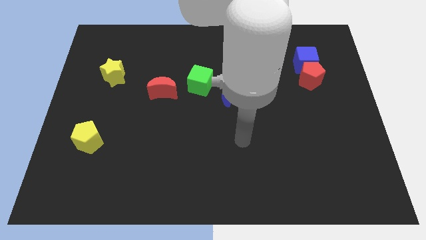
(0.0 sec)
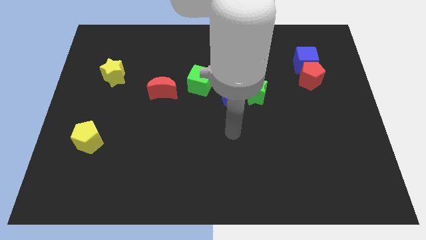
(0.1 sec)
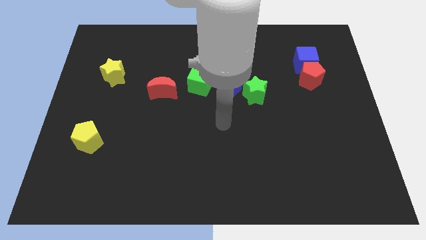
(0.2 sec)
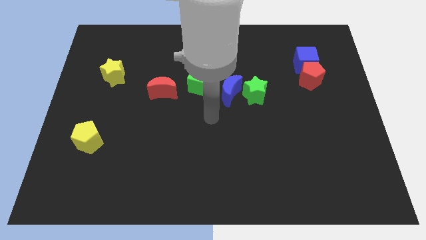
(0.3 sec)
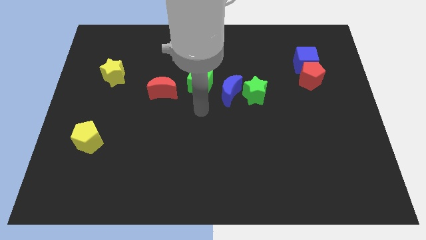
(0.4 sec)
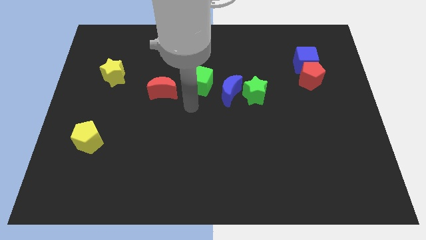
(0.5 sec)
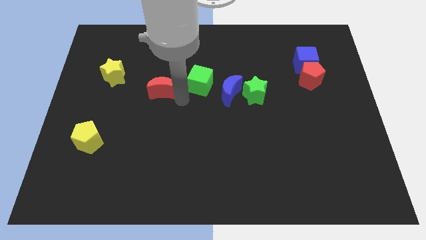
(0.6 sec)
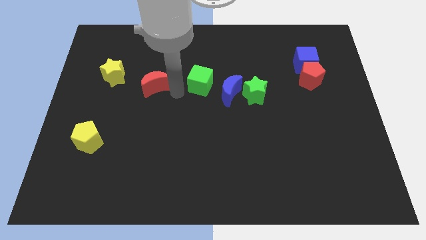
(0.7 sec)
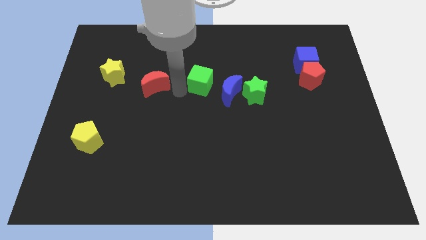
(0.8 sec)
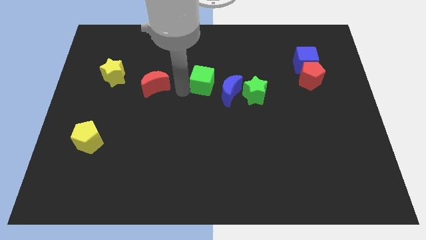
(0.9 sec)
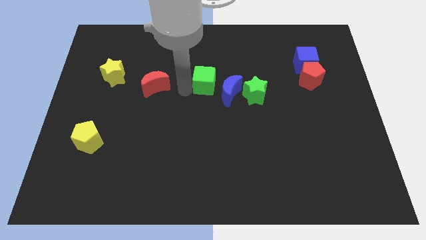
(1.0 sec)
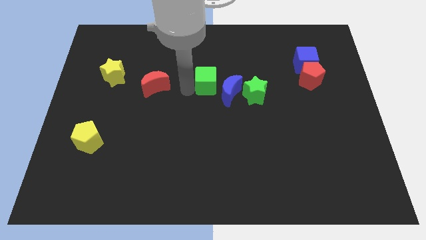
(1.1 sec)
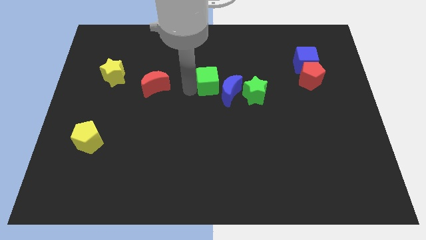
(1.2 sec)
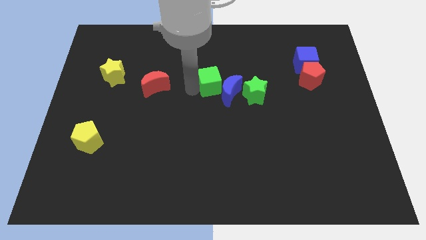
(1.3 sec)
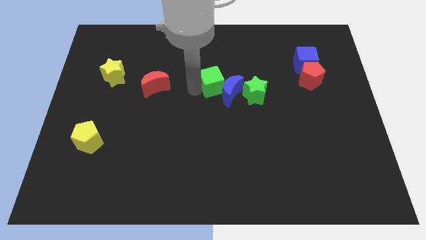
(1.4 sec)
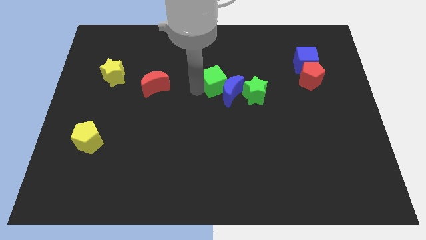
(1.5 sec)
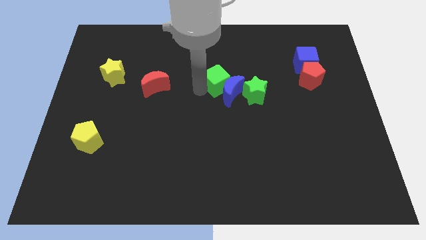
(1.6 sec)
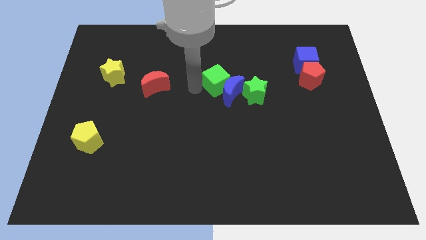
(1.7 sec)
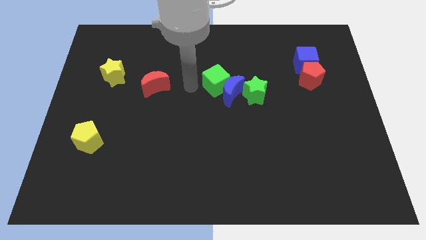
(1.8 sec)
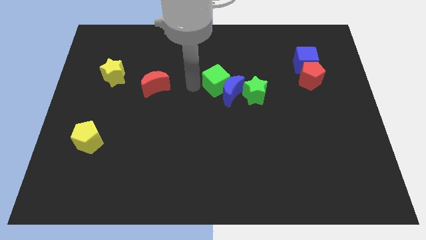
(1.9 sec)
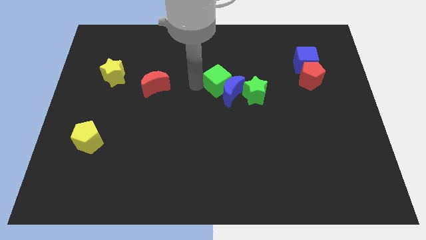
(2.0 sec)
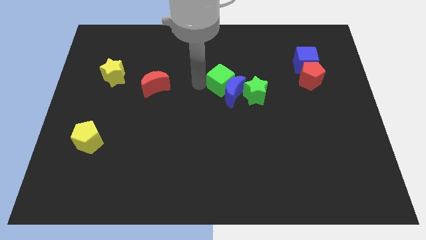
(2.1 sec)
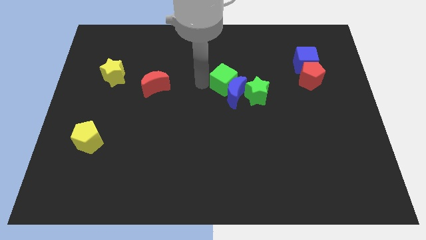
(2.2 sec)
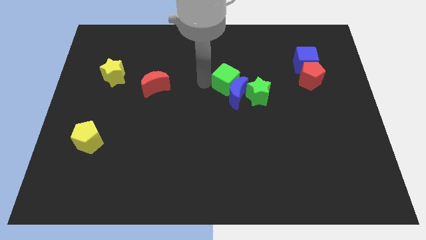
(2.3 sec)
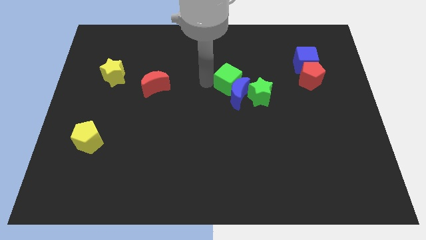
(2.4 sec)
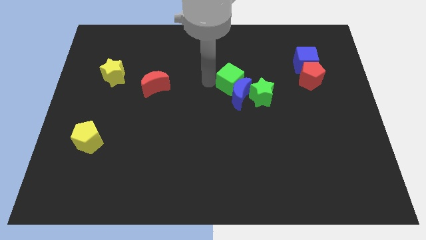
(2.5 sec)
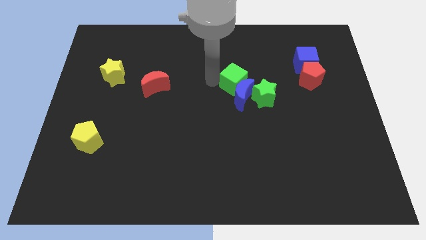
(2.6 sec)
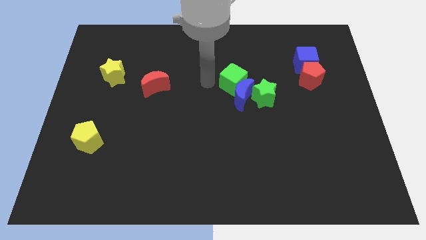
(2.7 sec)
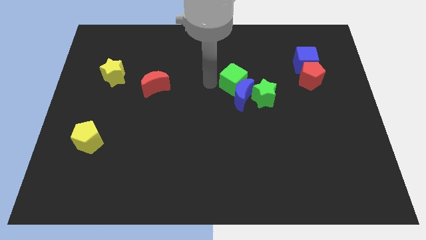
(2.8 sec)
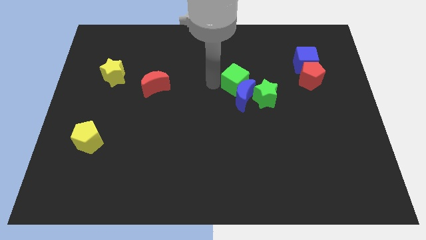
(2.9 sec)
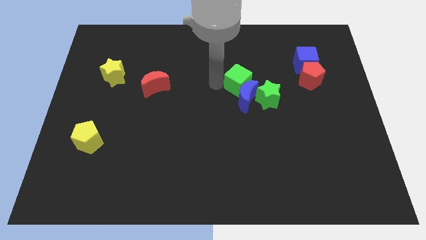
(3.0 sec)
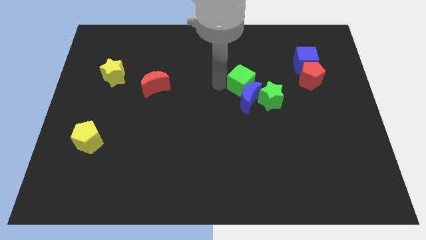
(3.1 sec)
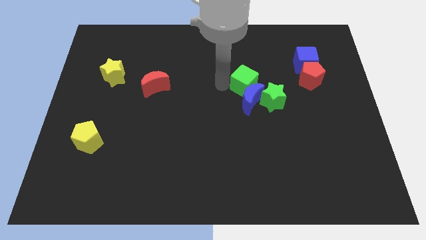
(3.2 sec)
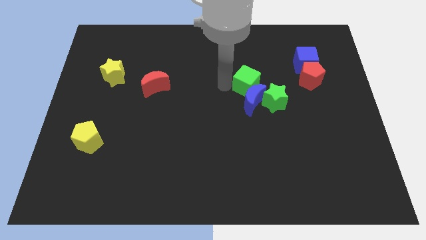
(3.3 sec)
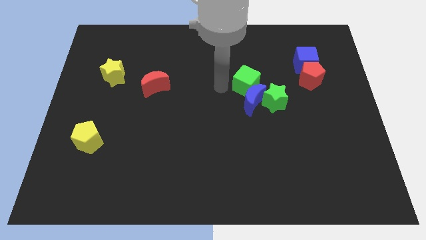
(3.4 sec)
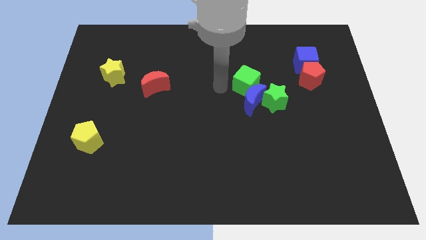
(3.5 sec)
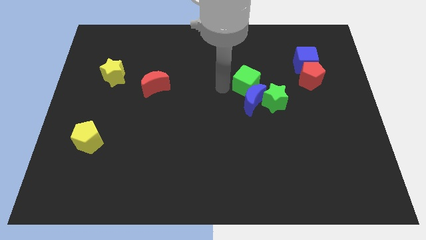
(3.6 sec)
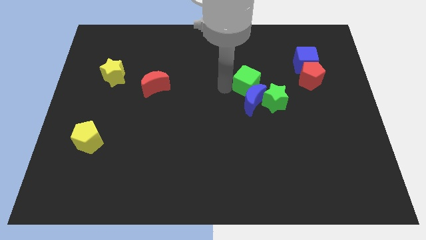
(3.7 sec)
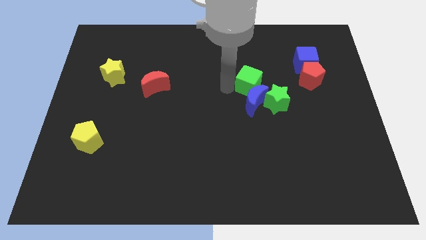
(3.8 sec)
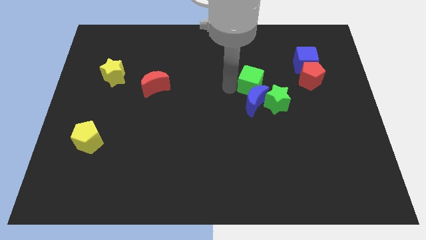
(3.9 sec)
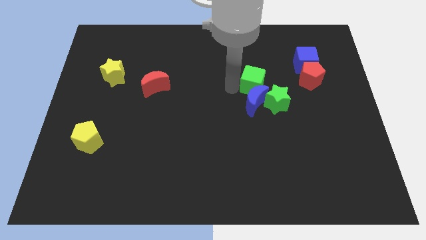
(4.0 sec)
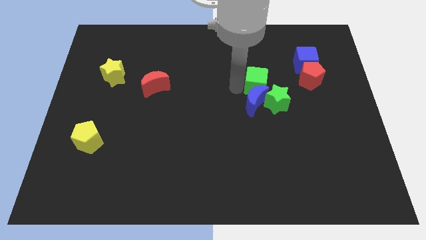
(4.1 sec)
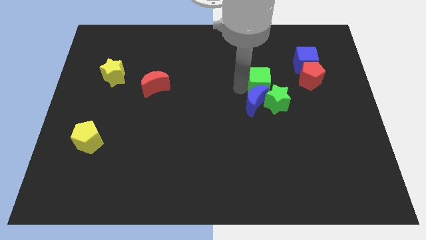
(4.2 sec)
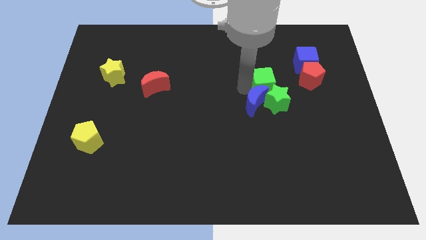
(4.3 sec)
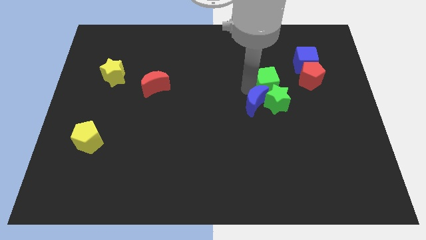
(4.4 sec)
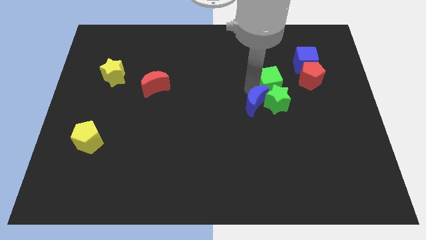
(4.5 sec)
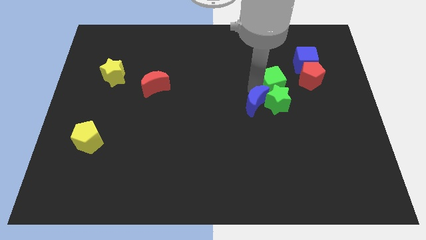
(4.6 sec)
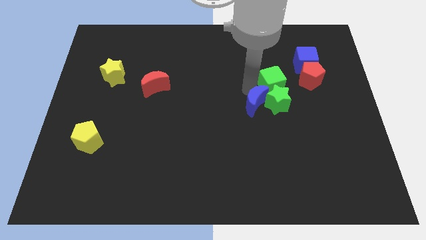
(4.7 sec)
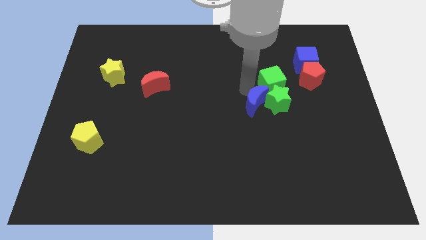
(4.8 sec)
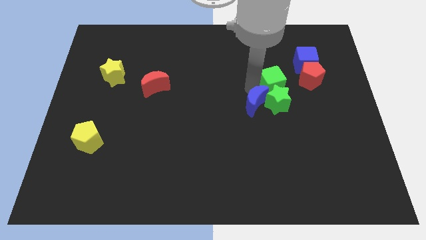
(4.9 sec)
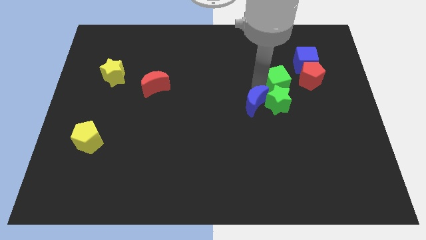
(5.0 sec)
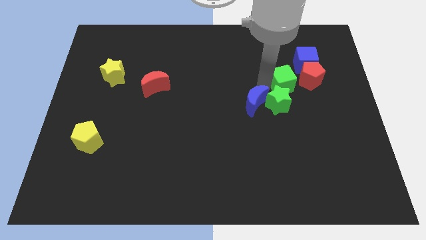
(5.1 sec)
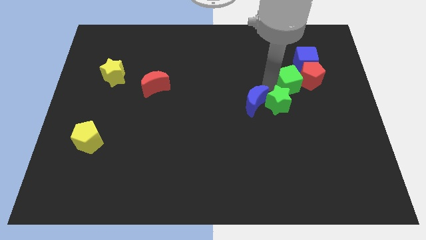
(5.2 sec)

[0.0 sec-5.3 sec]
push the green cube towards the red pentagon

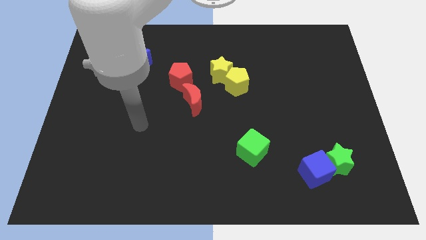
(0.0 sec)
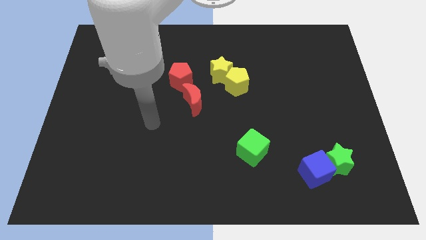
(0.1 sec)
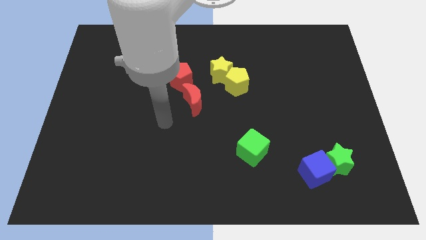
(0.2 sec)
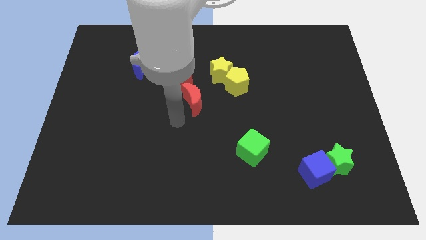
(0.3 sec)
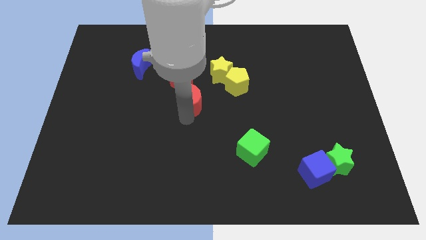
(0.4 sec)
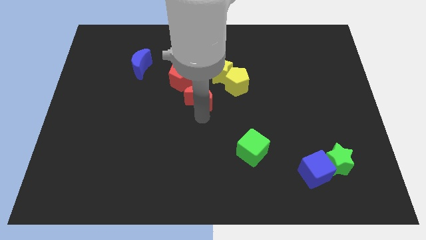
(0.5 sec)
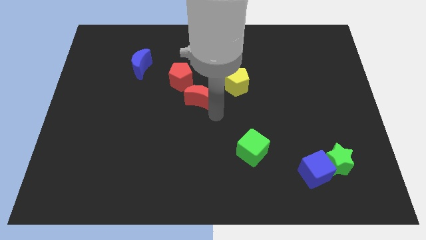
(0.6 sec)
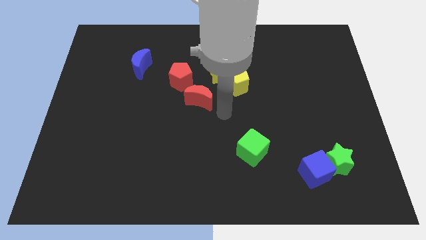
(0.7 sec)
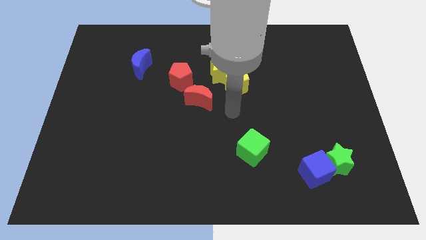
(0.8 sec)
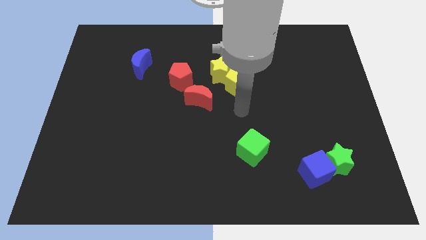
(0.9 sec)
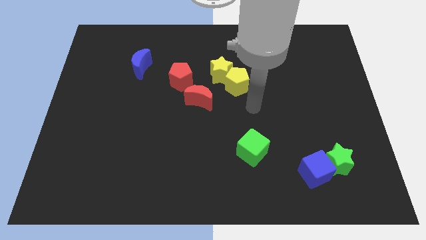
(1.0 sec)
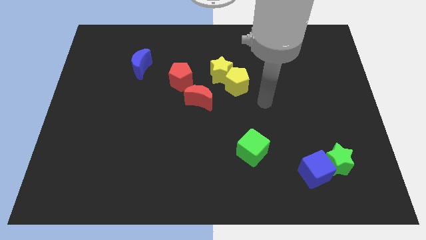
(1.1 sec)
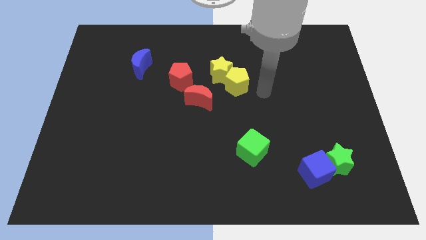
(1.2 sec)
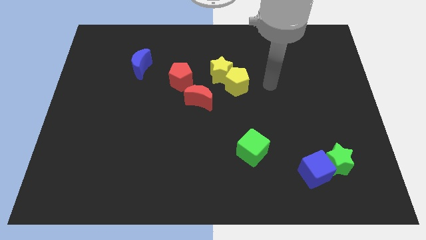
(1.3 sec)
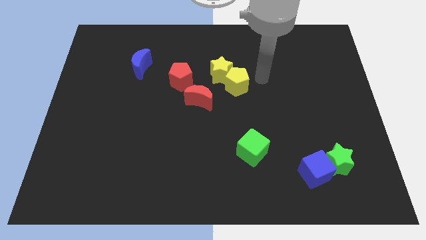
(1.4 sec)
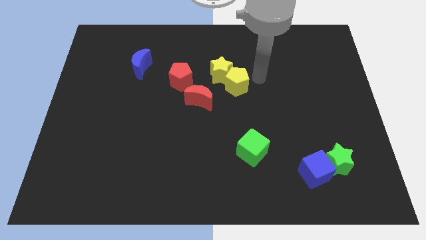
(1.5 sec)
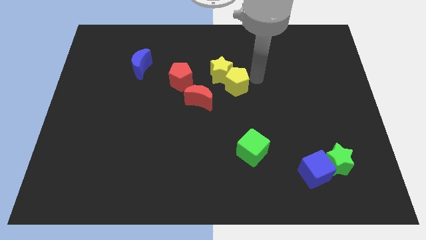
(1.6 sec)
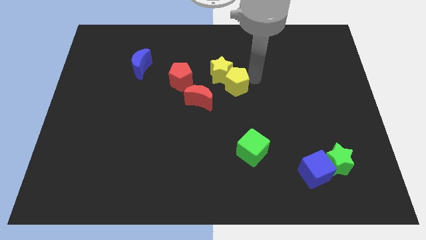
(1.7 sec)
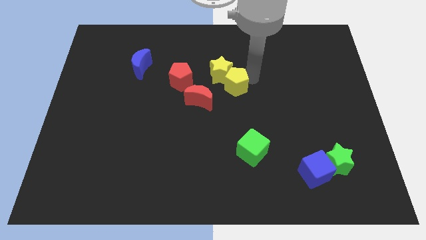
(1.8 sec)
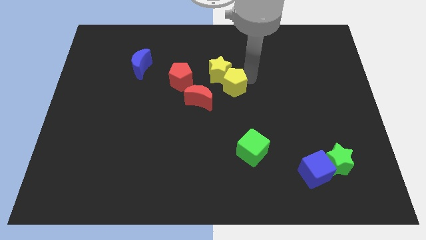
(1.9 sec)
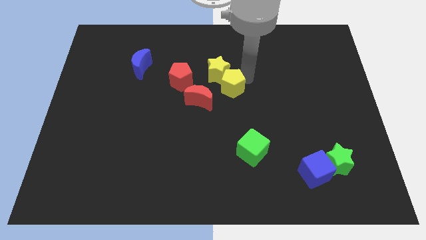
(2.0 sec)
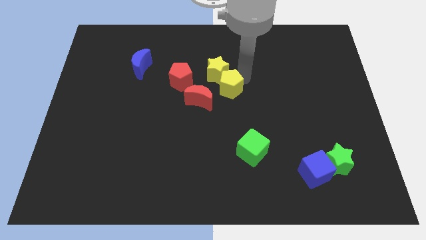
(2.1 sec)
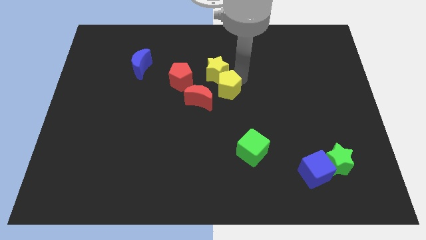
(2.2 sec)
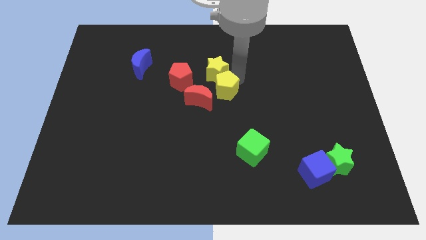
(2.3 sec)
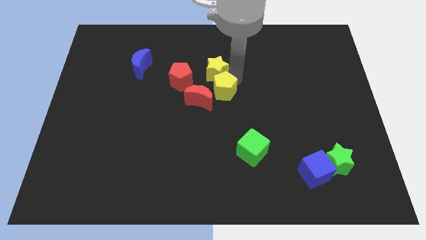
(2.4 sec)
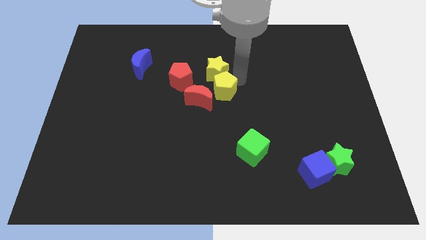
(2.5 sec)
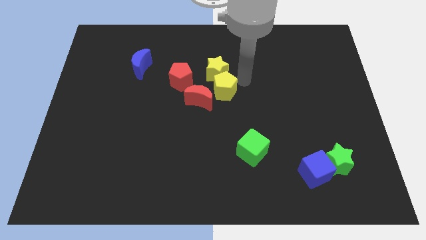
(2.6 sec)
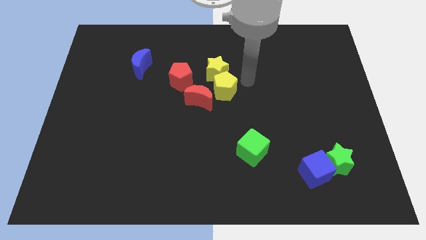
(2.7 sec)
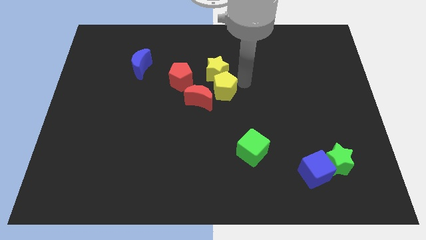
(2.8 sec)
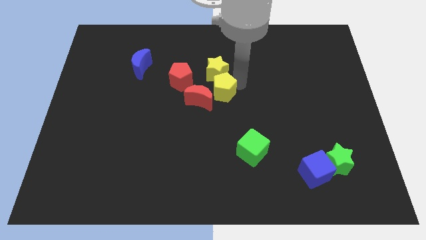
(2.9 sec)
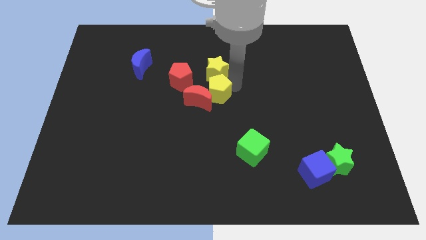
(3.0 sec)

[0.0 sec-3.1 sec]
slide the yellow pentagon towards the red moon

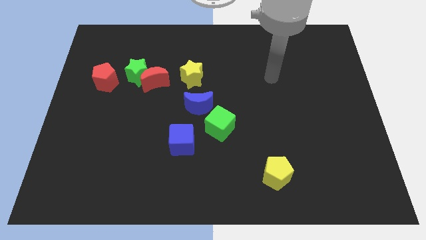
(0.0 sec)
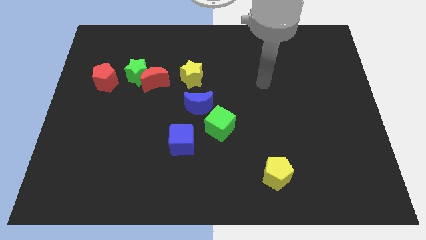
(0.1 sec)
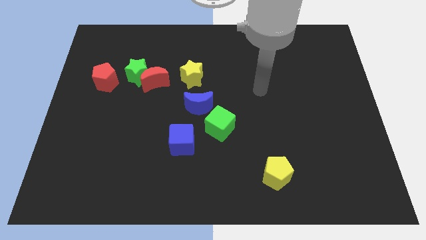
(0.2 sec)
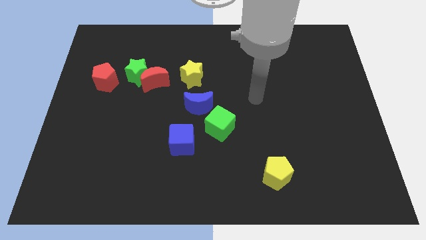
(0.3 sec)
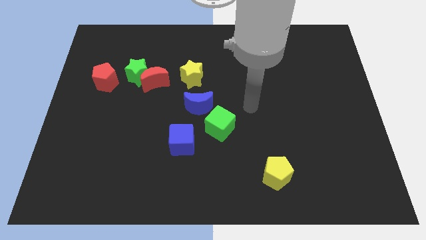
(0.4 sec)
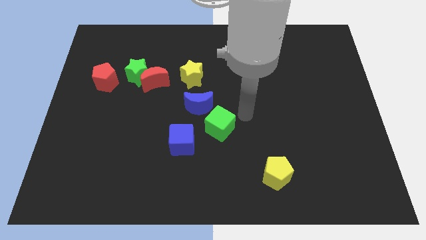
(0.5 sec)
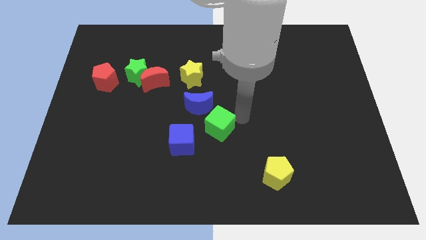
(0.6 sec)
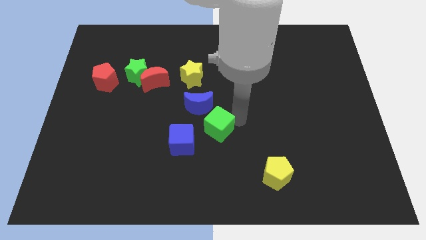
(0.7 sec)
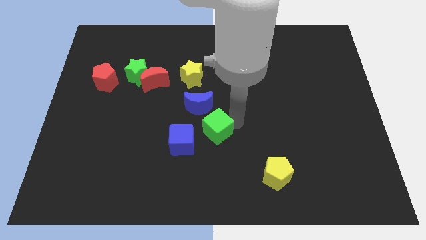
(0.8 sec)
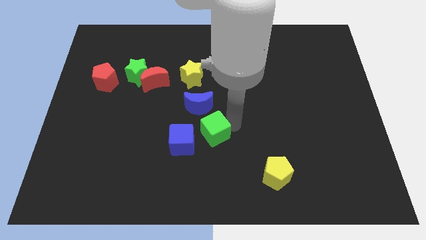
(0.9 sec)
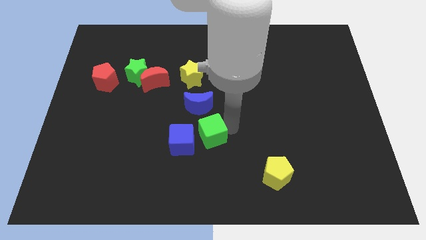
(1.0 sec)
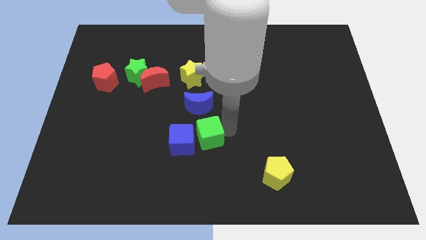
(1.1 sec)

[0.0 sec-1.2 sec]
push the green cube next to the blue cube
